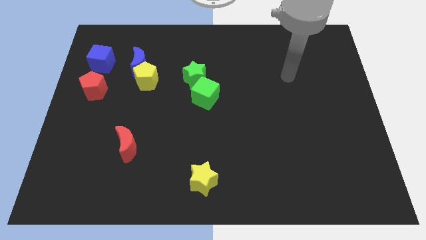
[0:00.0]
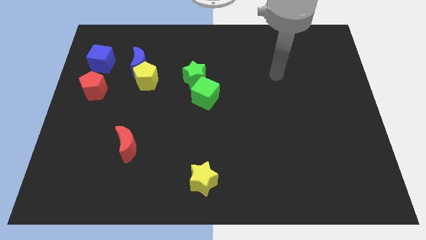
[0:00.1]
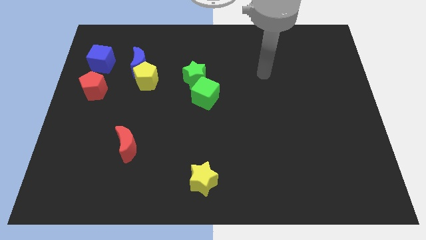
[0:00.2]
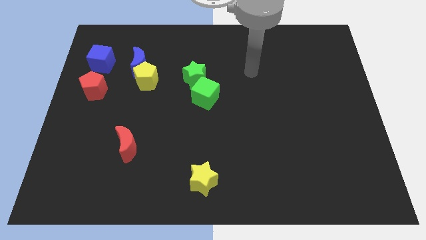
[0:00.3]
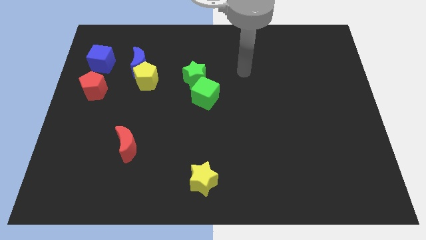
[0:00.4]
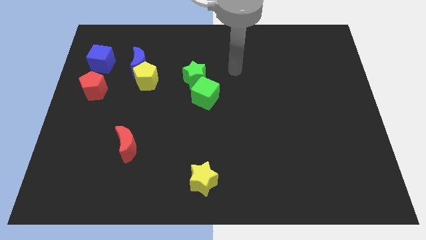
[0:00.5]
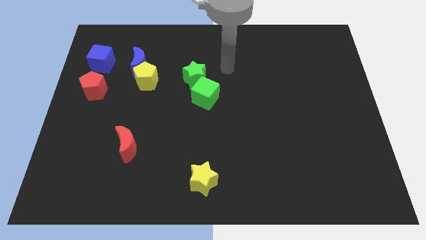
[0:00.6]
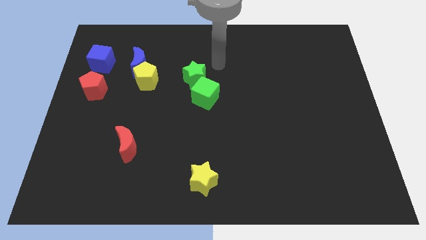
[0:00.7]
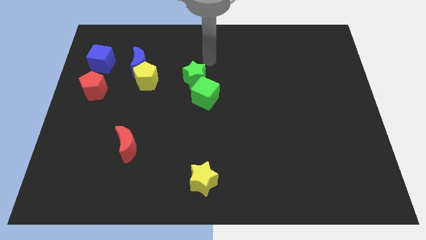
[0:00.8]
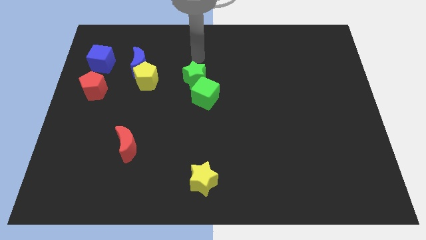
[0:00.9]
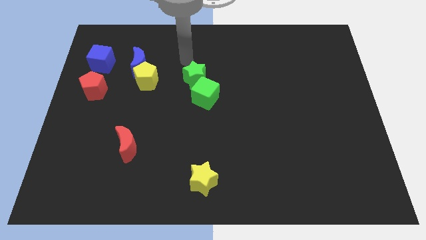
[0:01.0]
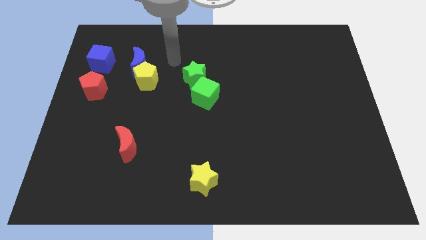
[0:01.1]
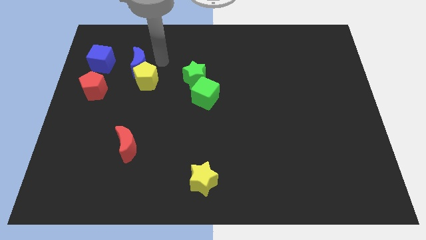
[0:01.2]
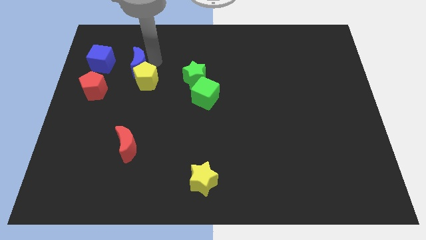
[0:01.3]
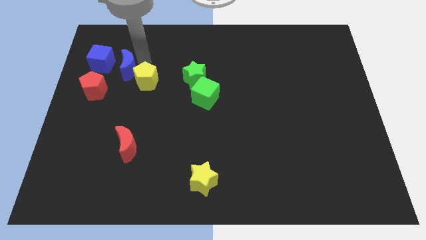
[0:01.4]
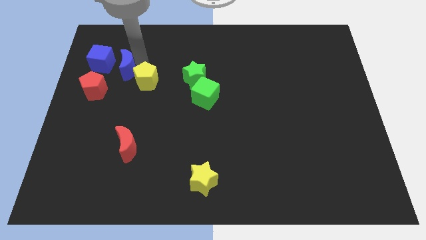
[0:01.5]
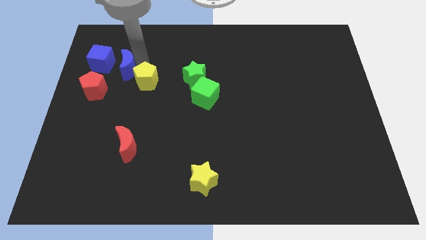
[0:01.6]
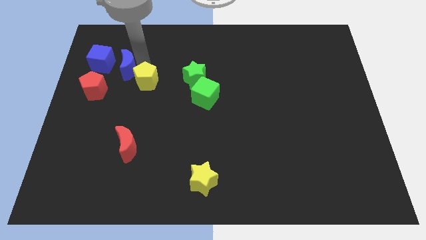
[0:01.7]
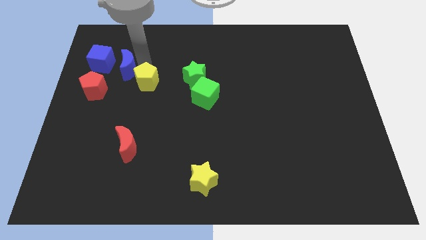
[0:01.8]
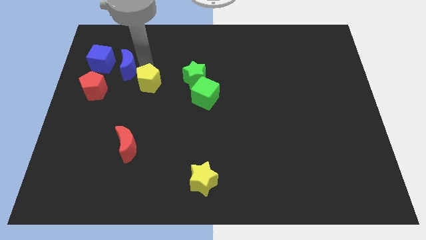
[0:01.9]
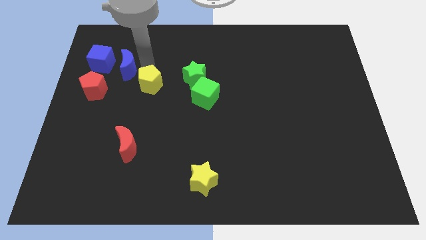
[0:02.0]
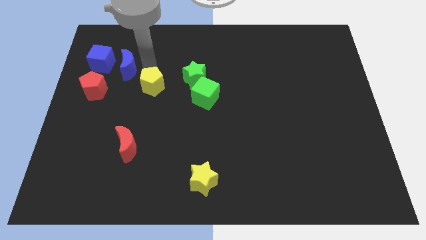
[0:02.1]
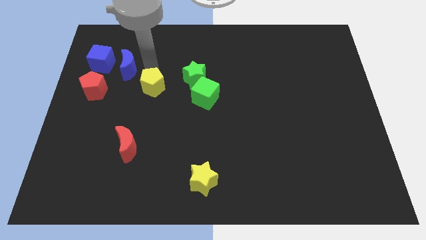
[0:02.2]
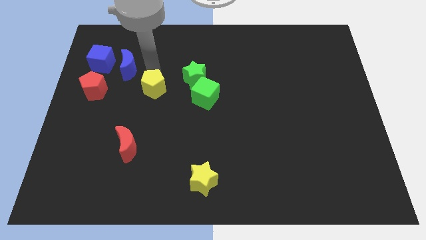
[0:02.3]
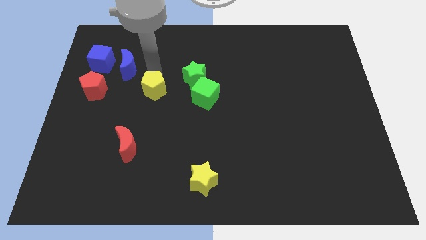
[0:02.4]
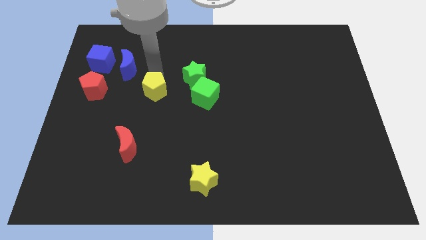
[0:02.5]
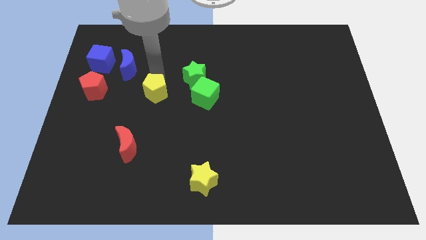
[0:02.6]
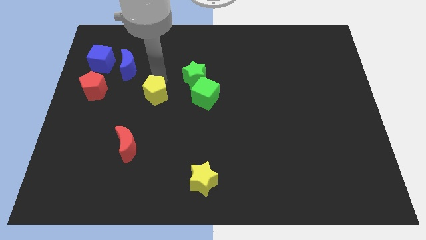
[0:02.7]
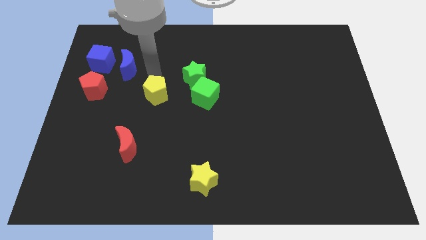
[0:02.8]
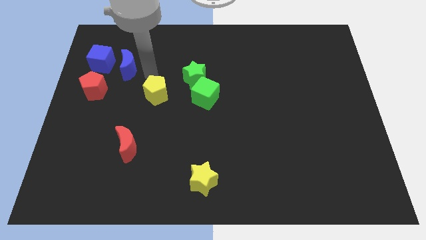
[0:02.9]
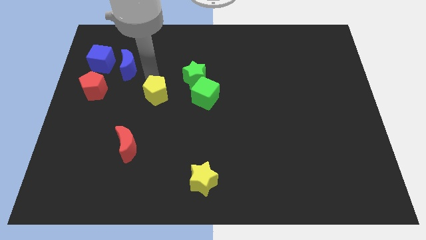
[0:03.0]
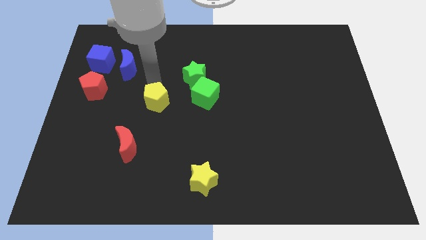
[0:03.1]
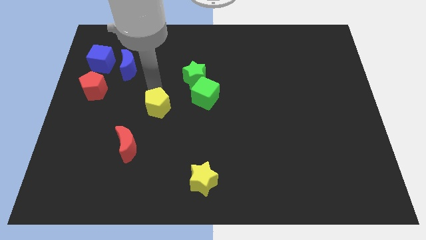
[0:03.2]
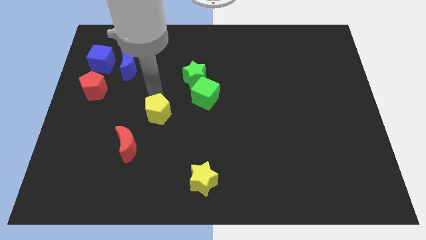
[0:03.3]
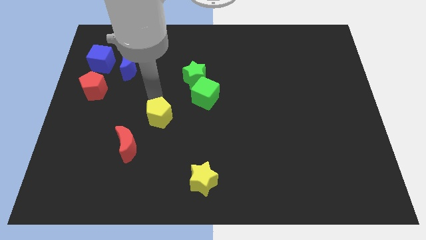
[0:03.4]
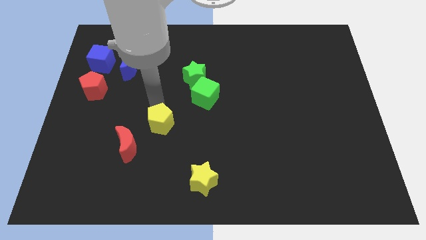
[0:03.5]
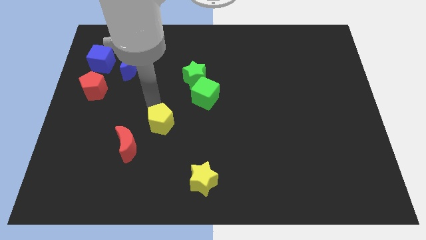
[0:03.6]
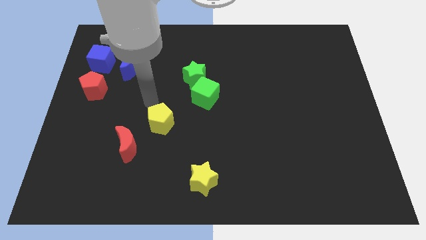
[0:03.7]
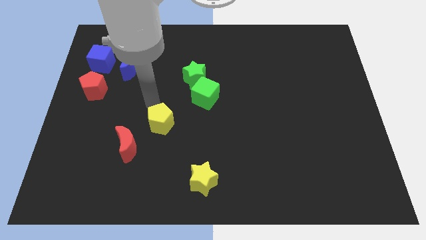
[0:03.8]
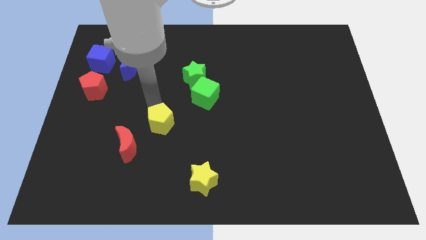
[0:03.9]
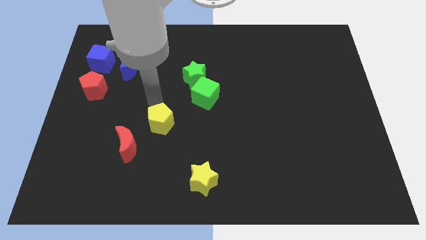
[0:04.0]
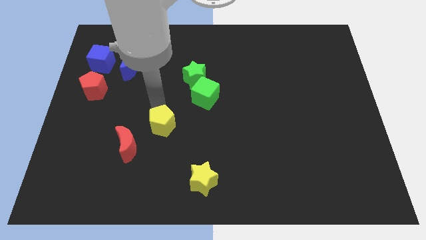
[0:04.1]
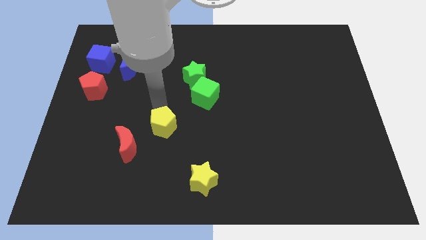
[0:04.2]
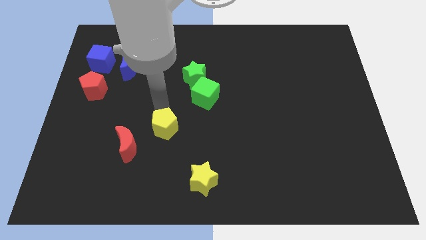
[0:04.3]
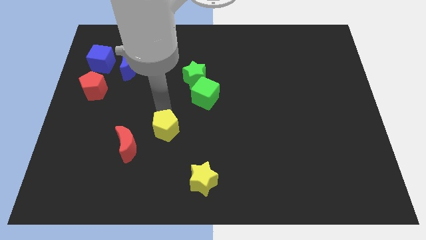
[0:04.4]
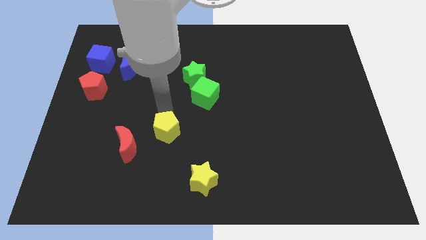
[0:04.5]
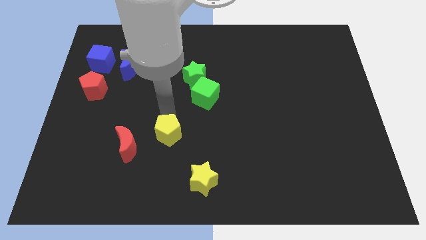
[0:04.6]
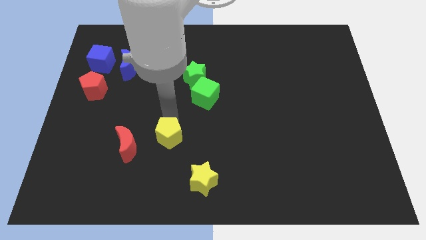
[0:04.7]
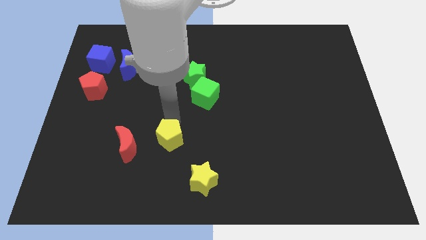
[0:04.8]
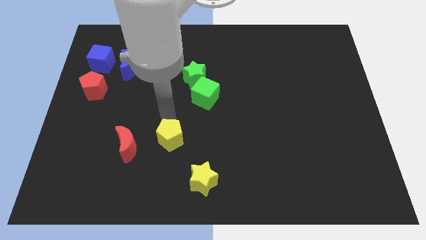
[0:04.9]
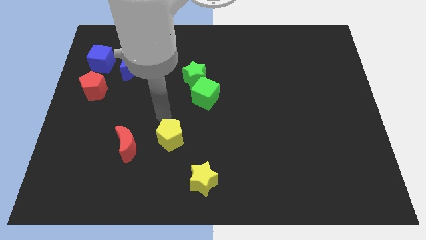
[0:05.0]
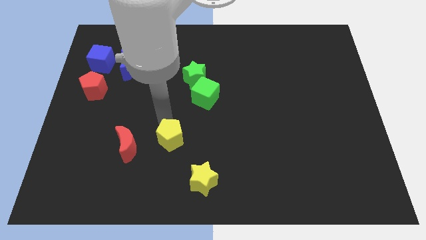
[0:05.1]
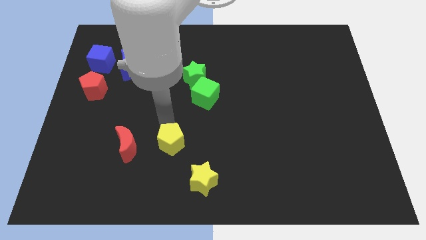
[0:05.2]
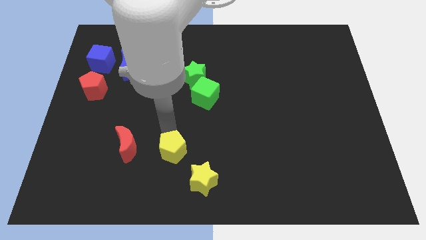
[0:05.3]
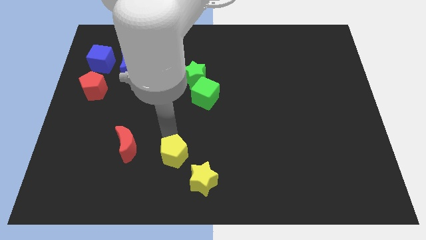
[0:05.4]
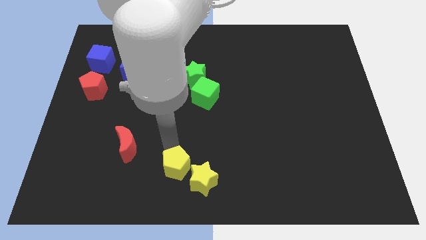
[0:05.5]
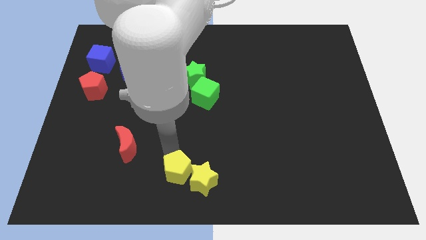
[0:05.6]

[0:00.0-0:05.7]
move the yellow pentagon next to the yellow star

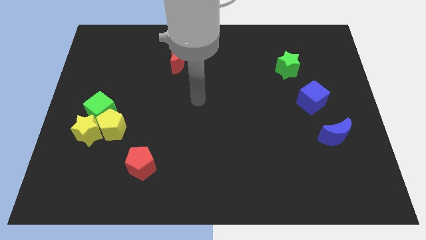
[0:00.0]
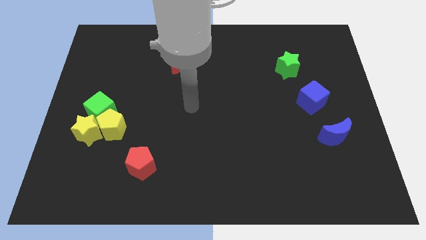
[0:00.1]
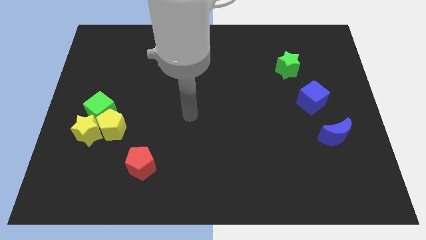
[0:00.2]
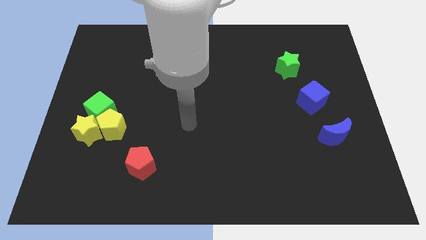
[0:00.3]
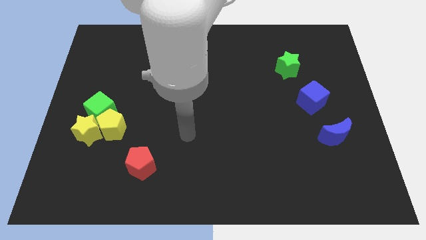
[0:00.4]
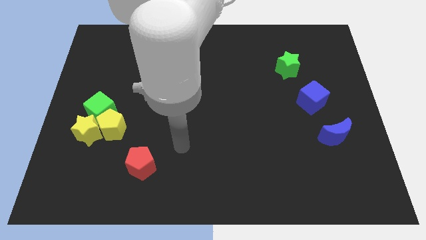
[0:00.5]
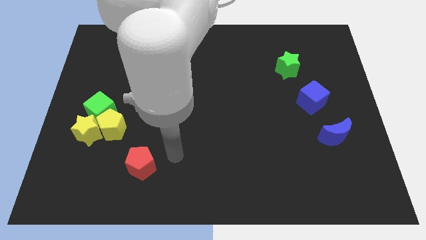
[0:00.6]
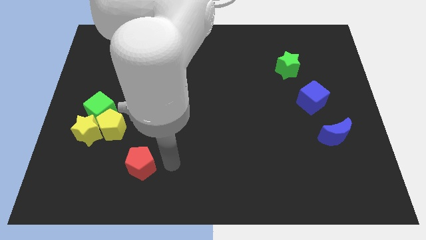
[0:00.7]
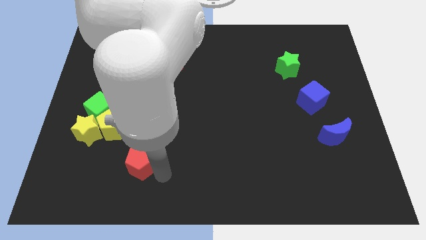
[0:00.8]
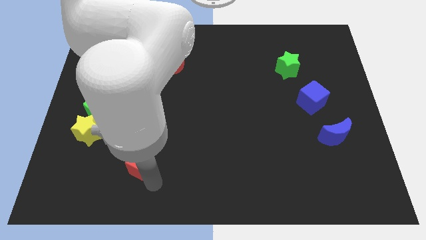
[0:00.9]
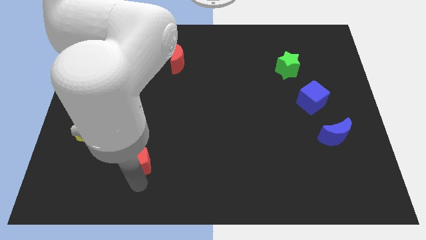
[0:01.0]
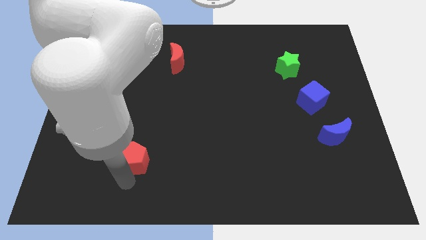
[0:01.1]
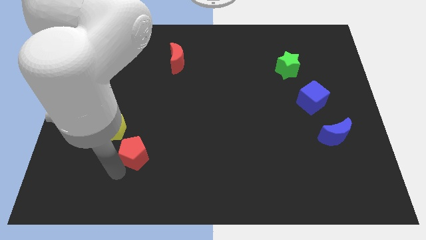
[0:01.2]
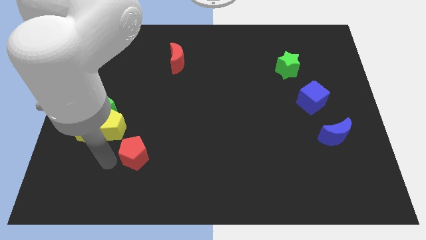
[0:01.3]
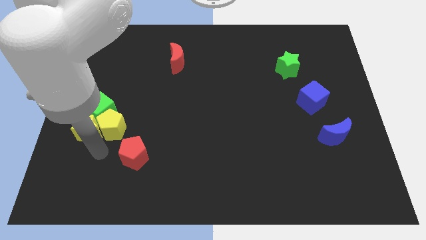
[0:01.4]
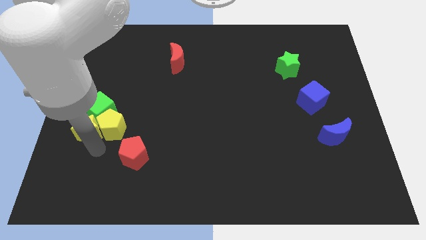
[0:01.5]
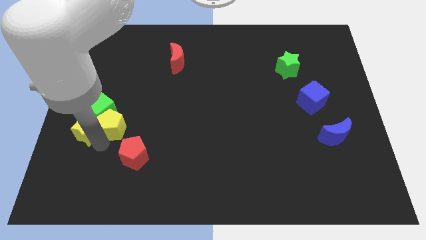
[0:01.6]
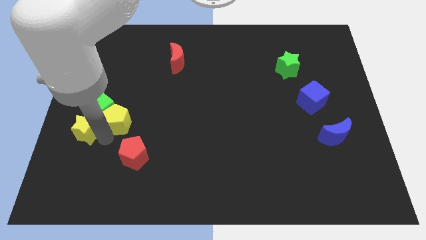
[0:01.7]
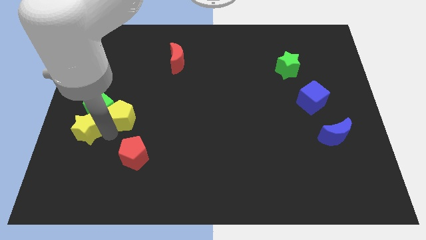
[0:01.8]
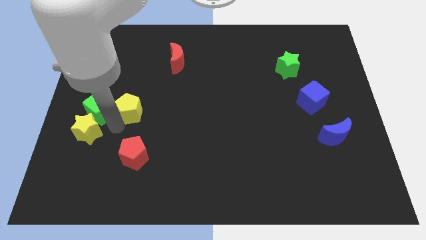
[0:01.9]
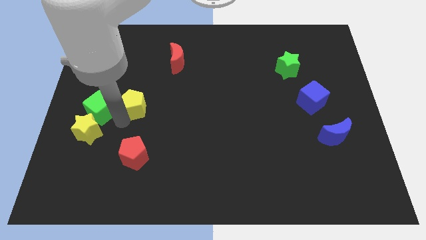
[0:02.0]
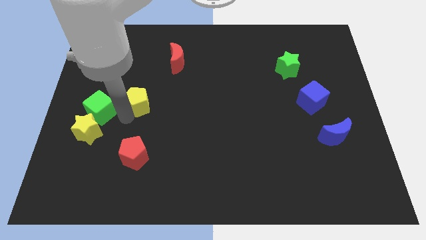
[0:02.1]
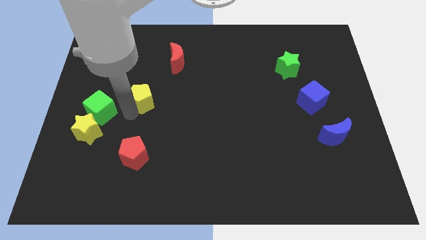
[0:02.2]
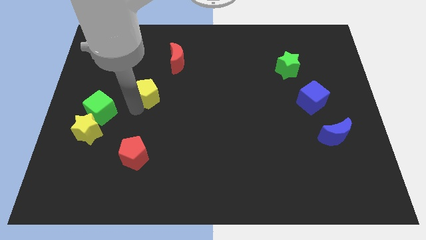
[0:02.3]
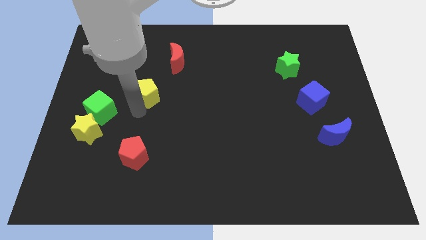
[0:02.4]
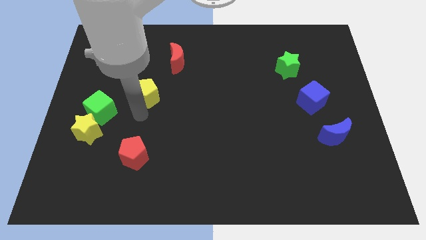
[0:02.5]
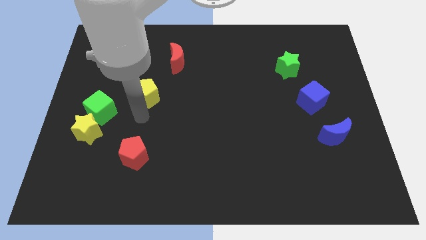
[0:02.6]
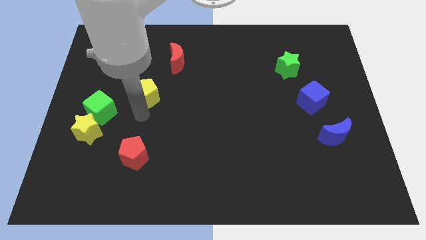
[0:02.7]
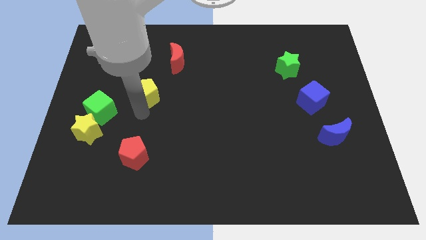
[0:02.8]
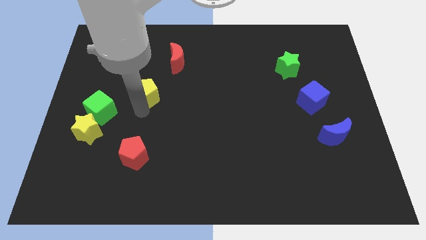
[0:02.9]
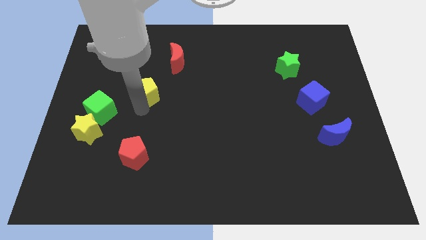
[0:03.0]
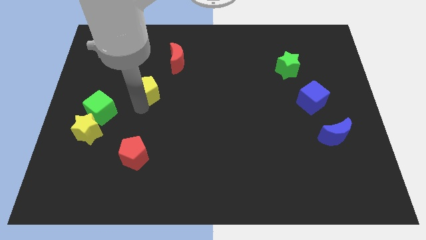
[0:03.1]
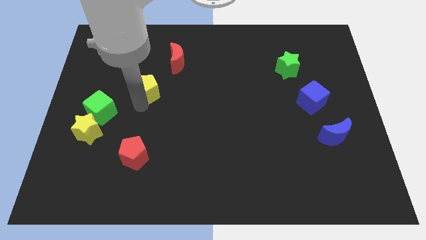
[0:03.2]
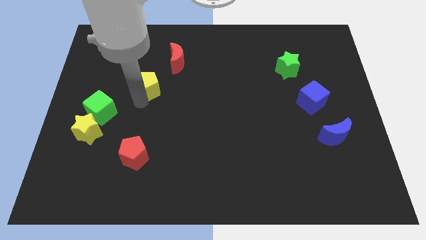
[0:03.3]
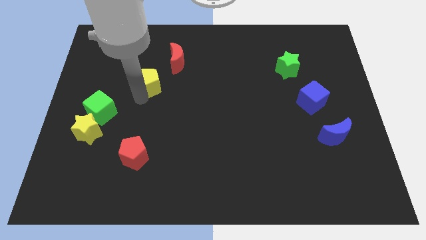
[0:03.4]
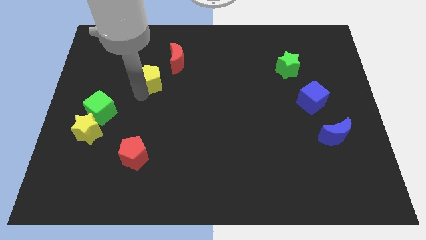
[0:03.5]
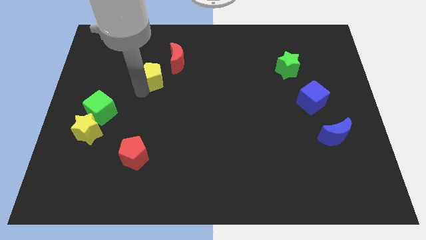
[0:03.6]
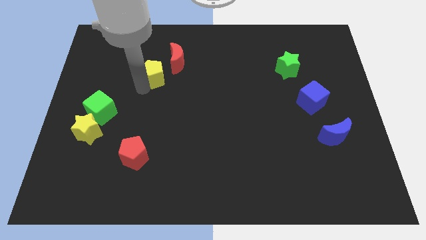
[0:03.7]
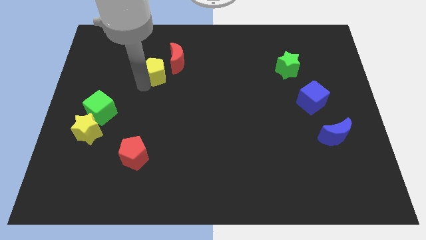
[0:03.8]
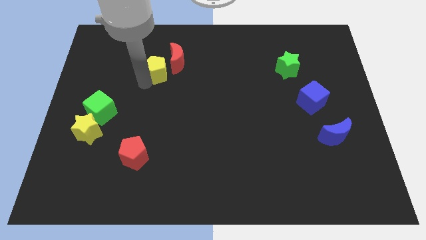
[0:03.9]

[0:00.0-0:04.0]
push the yellow pentagon next to the red moon
